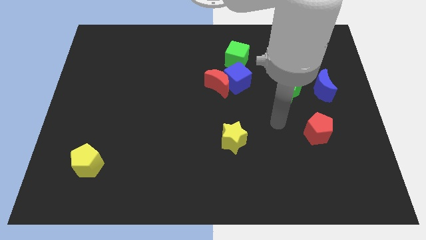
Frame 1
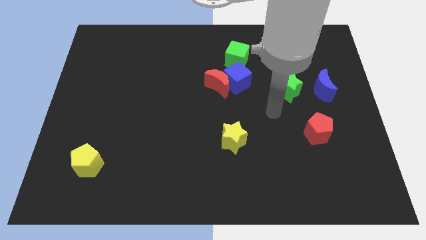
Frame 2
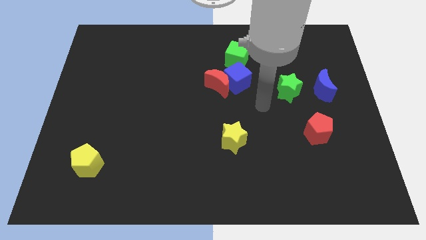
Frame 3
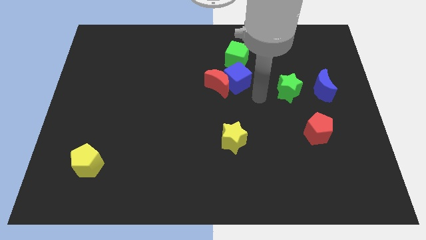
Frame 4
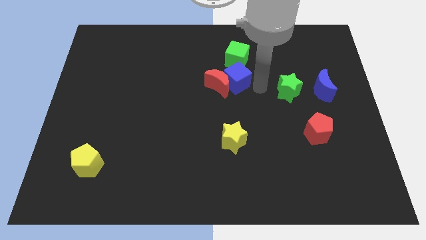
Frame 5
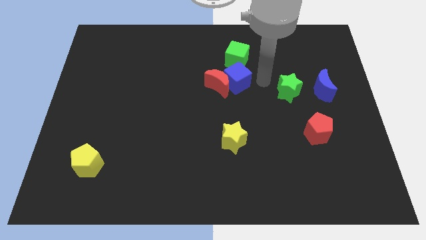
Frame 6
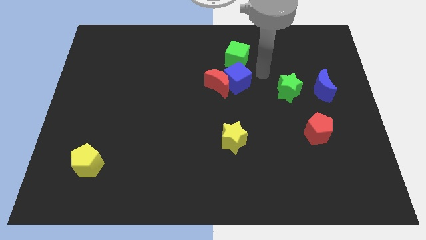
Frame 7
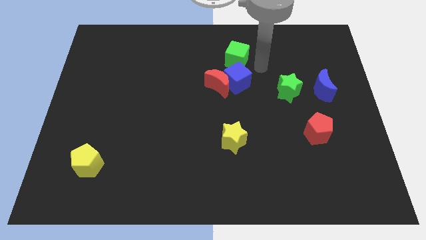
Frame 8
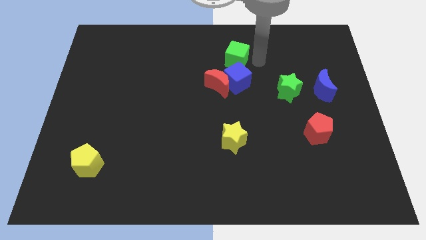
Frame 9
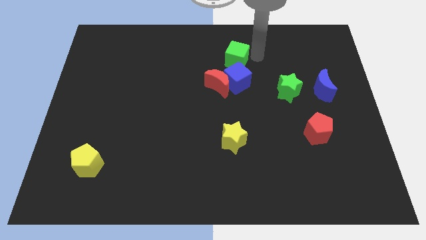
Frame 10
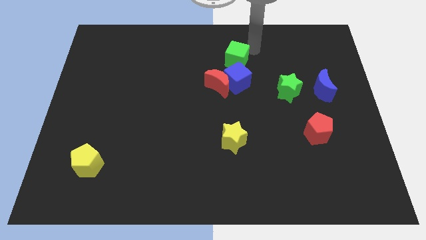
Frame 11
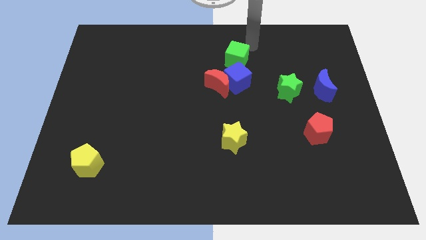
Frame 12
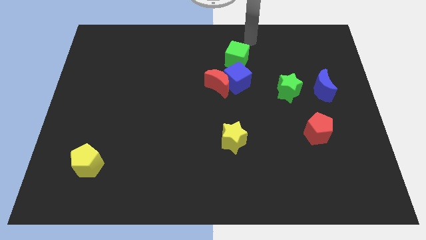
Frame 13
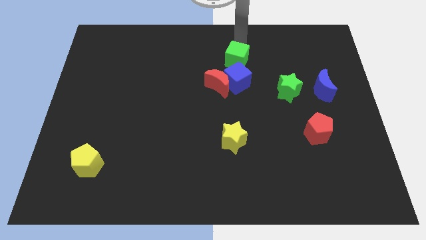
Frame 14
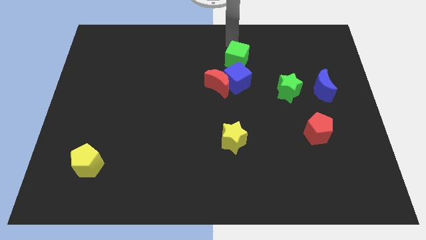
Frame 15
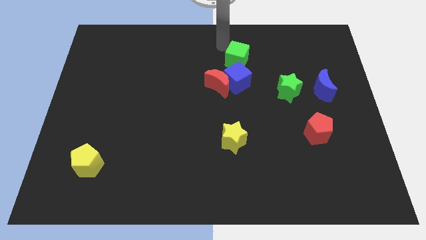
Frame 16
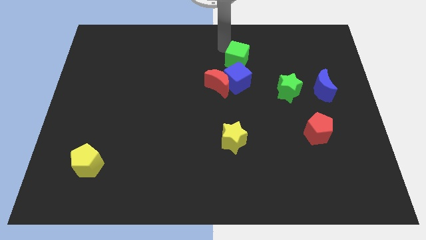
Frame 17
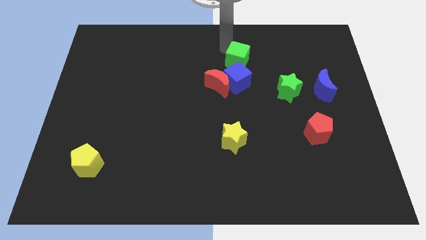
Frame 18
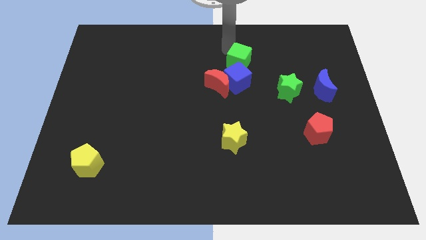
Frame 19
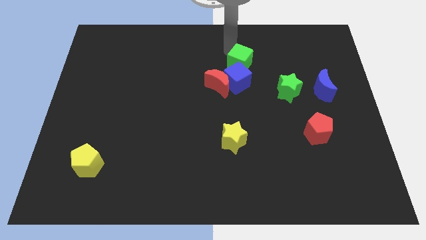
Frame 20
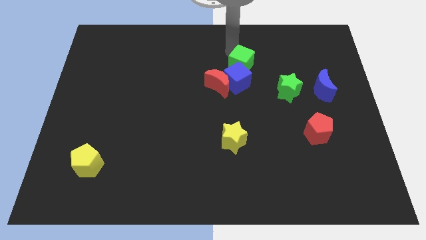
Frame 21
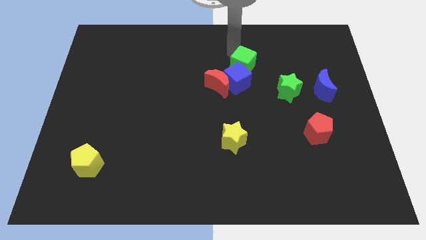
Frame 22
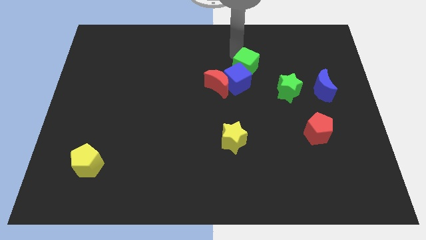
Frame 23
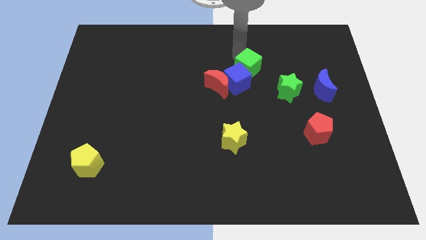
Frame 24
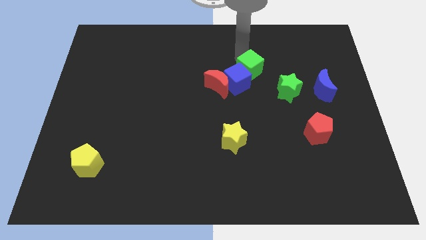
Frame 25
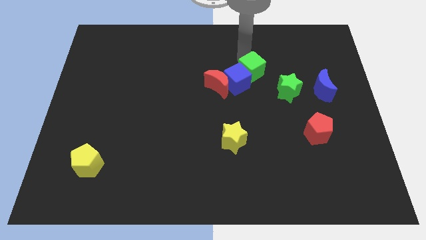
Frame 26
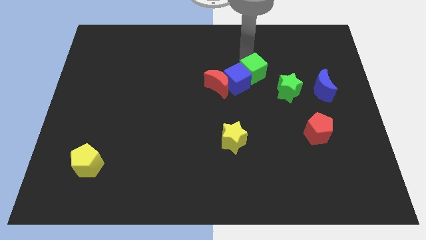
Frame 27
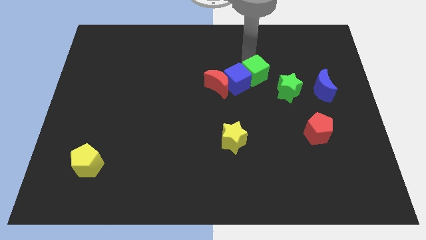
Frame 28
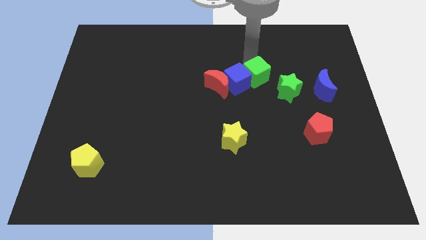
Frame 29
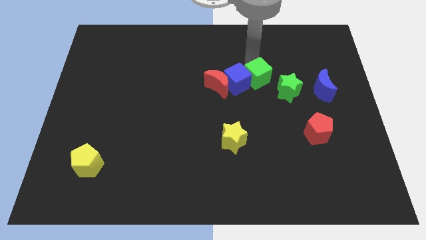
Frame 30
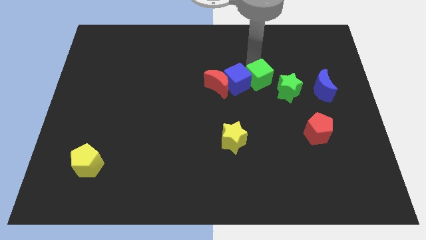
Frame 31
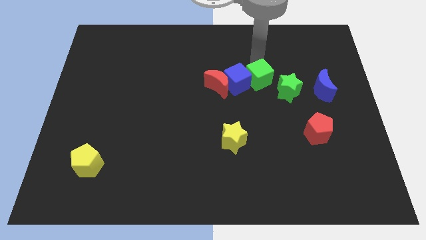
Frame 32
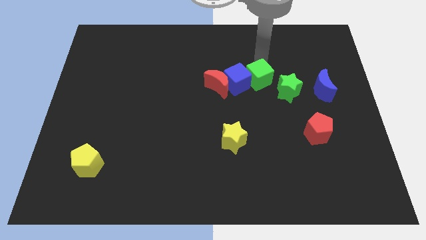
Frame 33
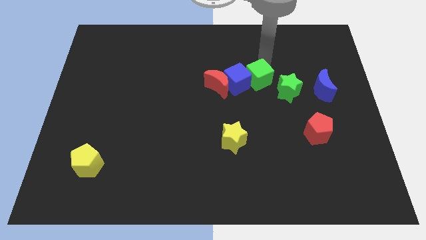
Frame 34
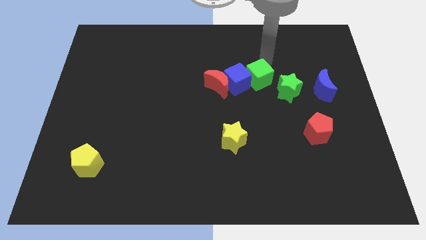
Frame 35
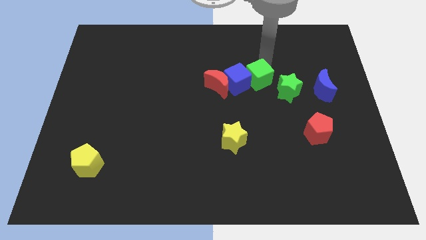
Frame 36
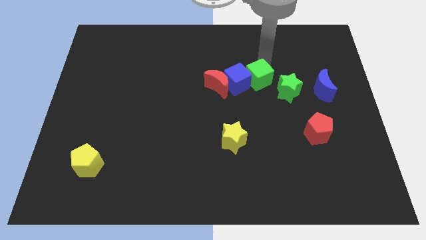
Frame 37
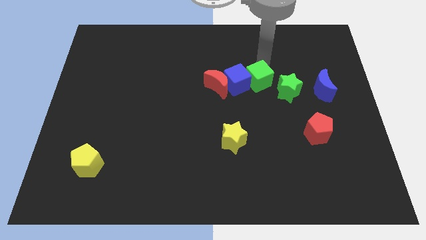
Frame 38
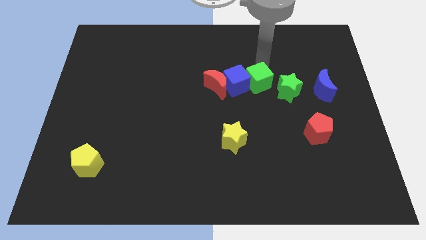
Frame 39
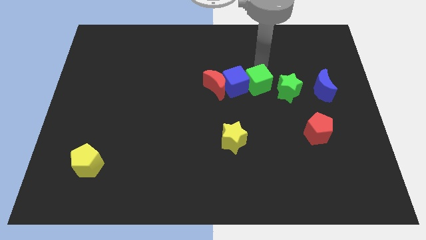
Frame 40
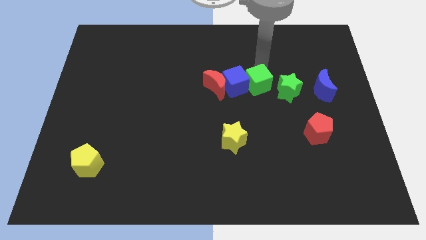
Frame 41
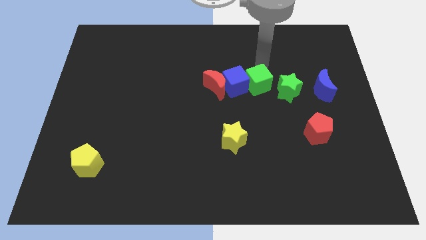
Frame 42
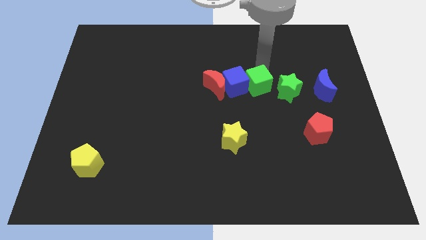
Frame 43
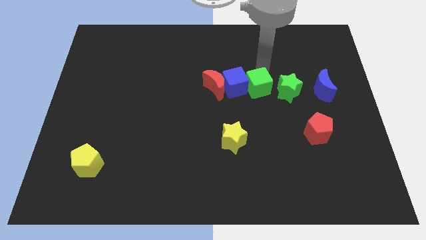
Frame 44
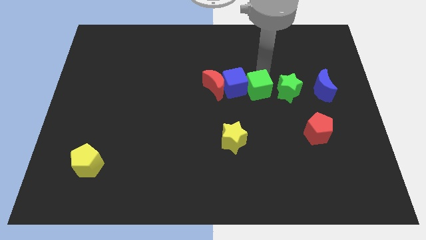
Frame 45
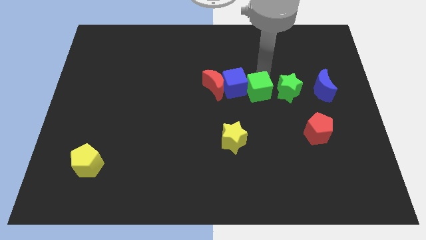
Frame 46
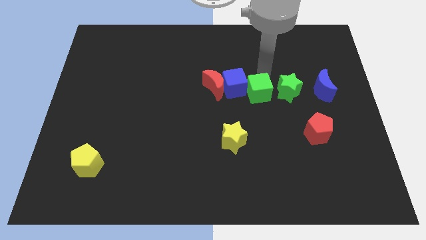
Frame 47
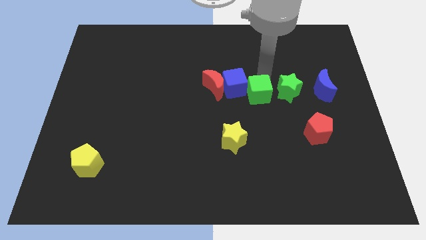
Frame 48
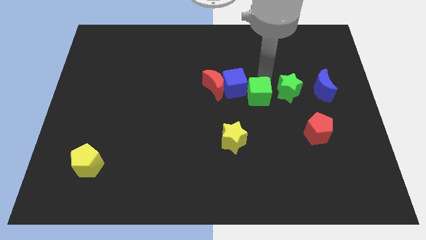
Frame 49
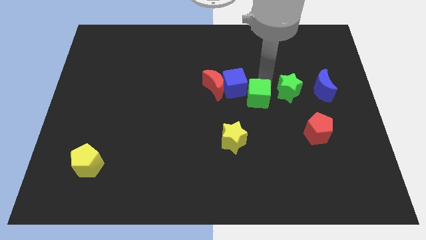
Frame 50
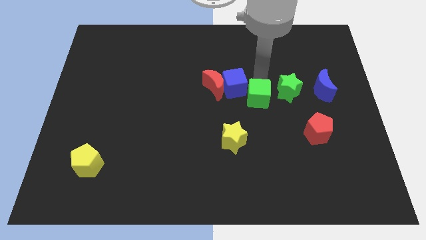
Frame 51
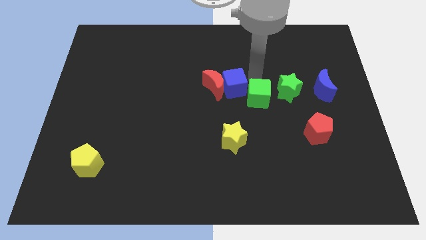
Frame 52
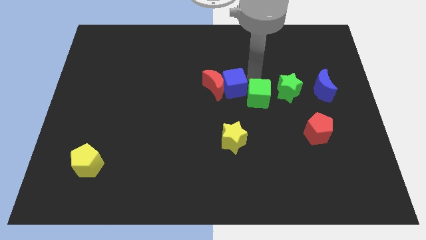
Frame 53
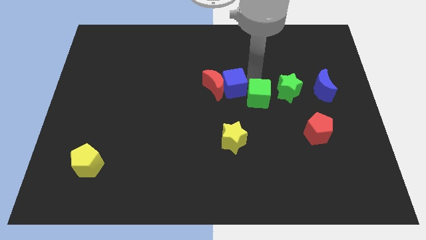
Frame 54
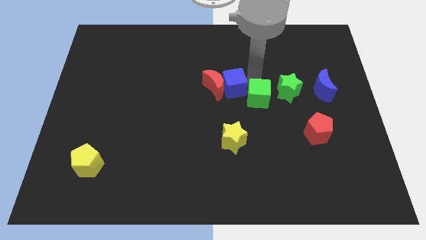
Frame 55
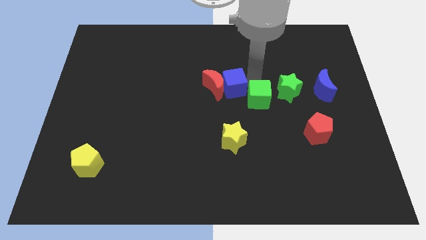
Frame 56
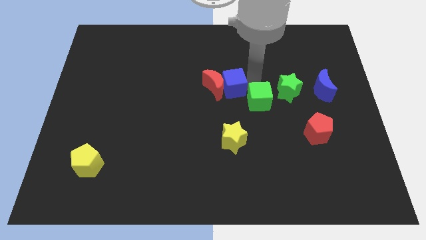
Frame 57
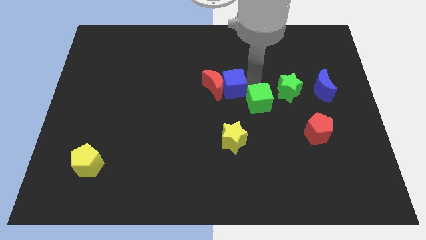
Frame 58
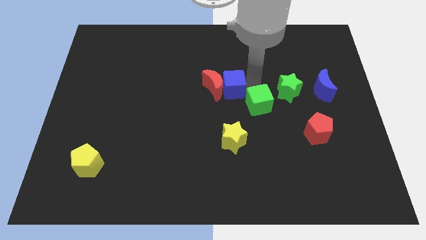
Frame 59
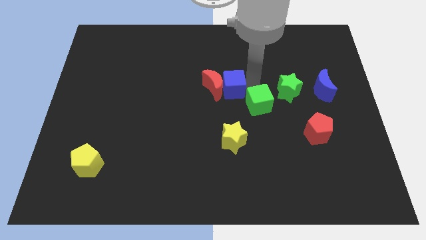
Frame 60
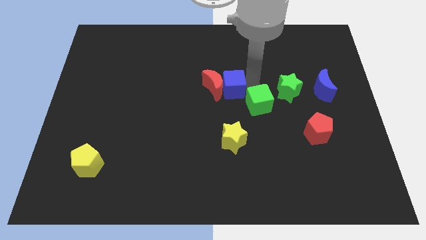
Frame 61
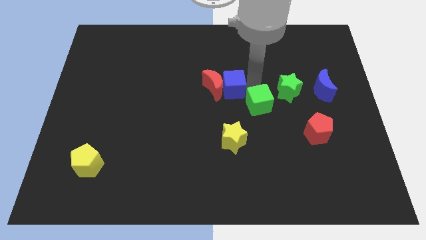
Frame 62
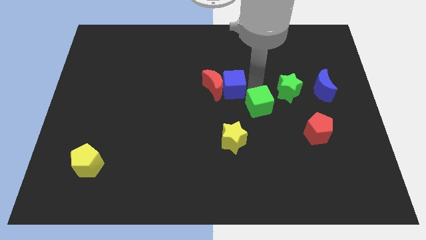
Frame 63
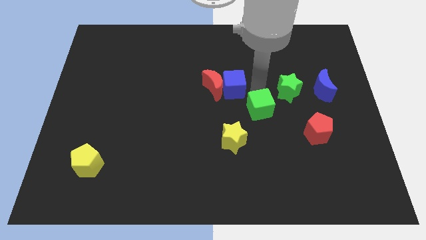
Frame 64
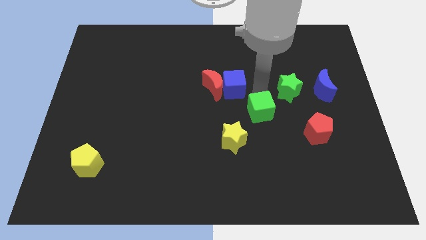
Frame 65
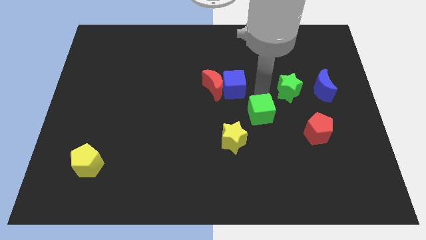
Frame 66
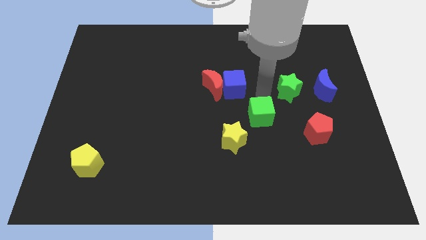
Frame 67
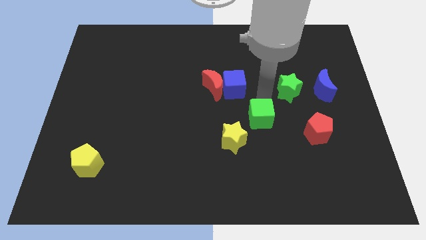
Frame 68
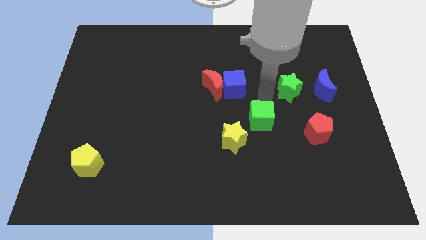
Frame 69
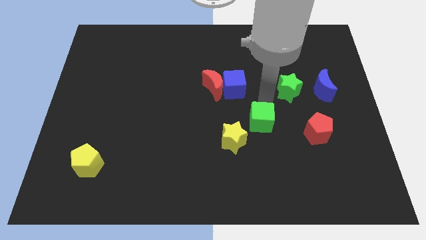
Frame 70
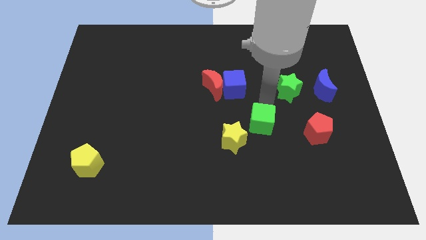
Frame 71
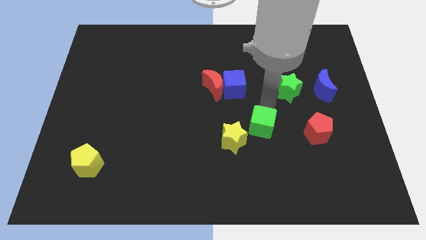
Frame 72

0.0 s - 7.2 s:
slide the green cube down

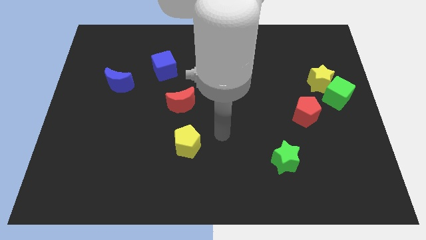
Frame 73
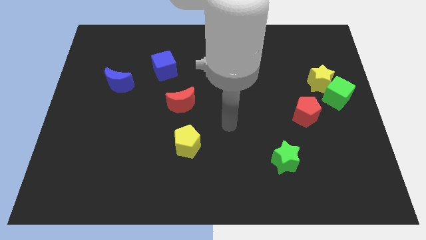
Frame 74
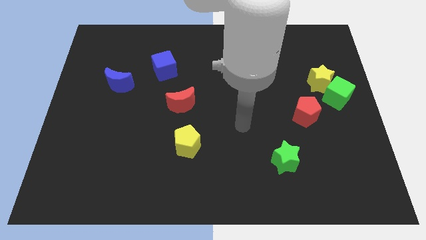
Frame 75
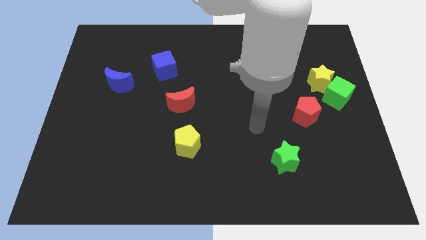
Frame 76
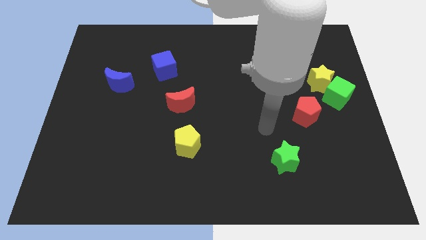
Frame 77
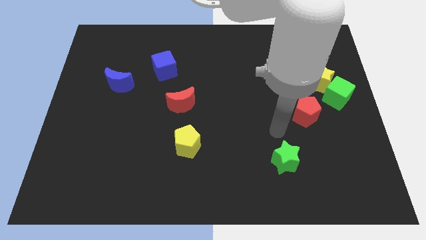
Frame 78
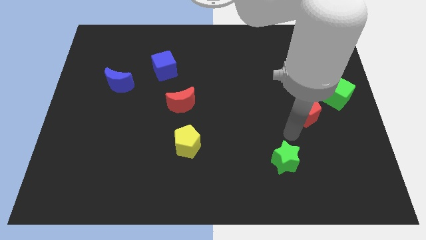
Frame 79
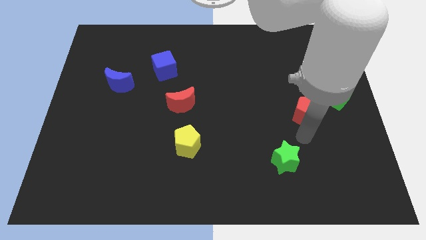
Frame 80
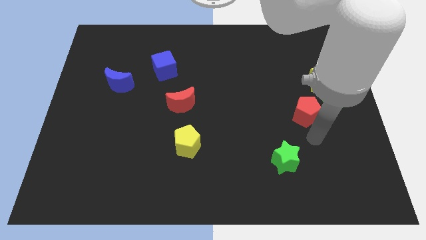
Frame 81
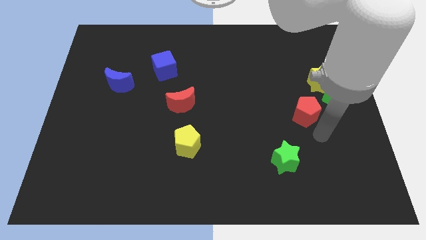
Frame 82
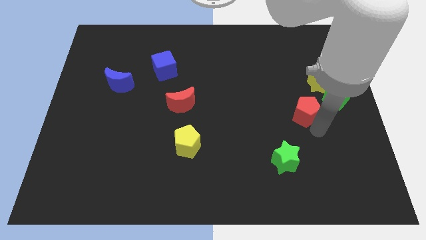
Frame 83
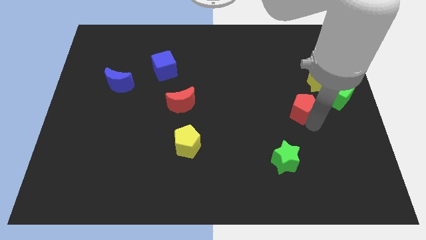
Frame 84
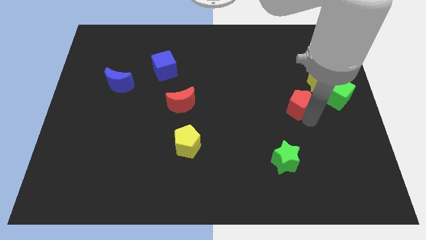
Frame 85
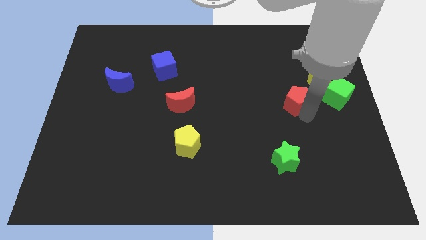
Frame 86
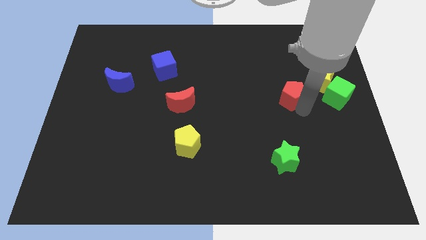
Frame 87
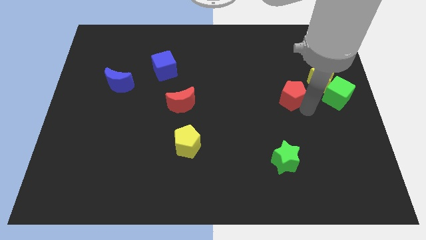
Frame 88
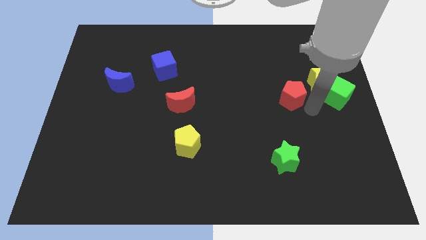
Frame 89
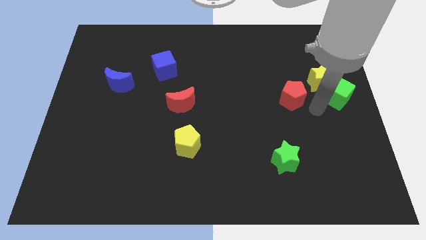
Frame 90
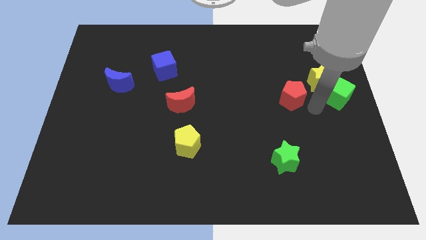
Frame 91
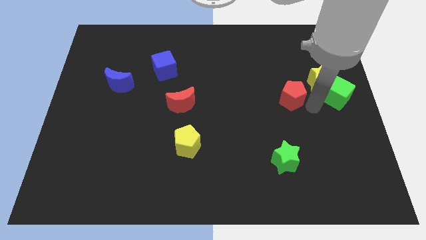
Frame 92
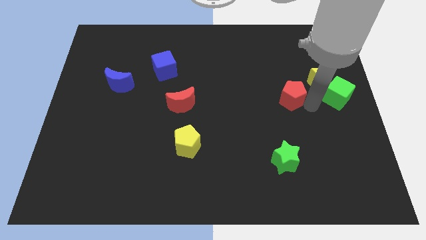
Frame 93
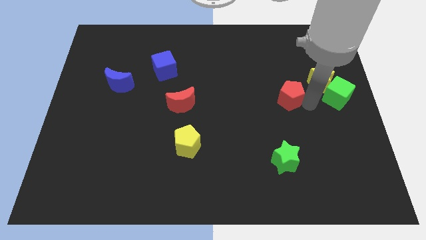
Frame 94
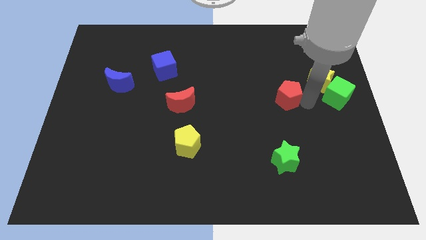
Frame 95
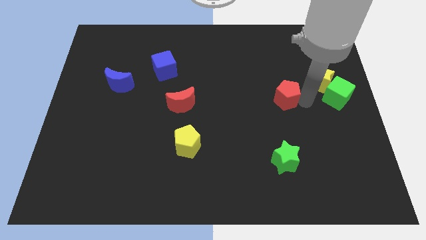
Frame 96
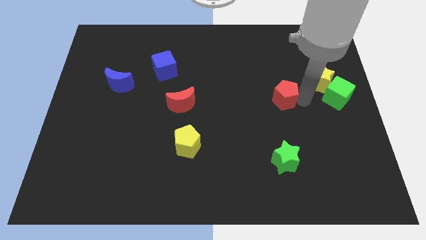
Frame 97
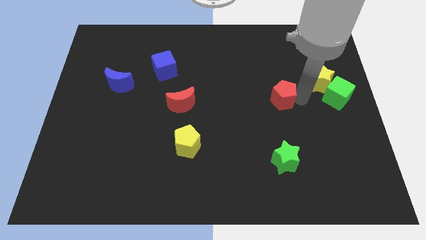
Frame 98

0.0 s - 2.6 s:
move the red pentagon somewhat up and then to the left
